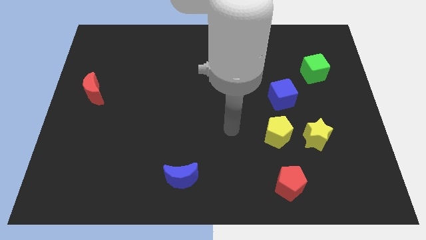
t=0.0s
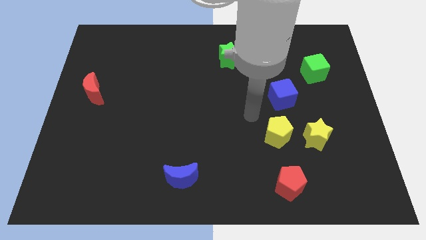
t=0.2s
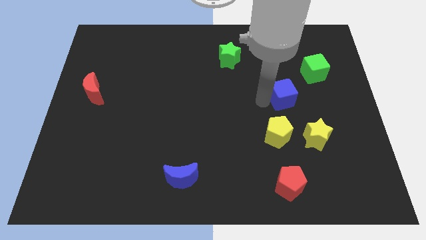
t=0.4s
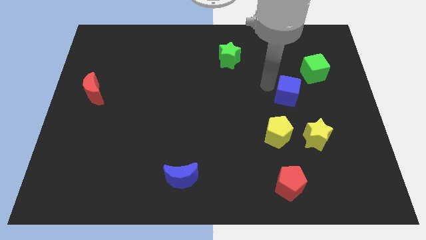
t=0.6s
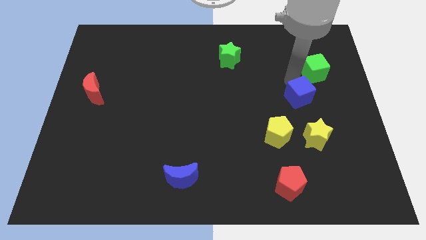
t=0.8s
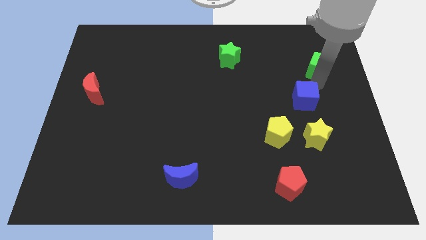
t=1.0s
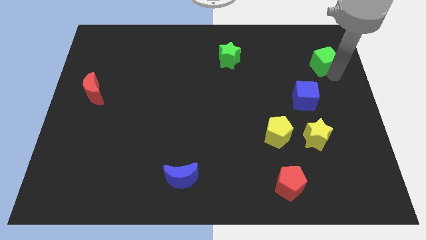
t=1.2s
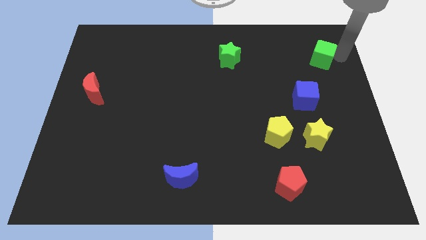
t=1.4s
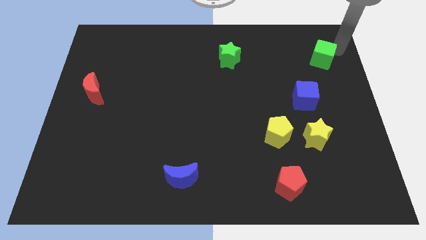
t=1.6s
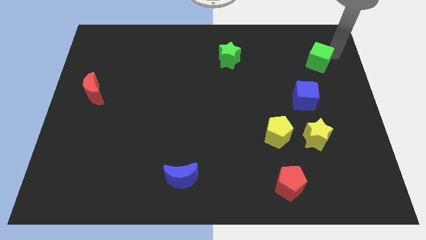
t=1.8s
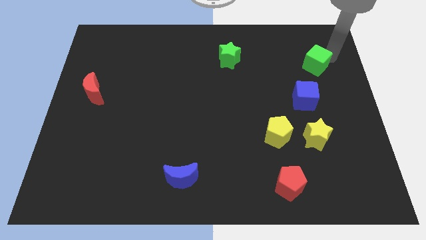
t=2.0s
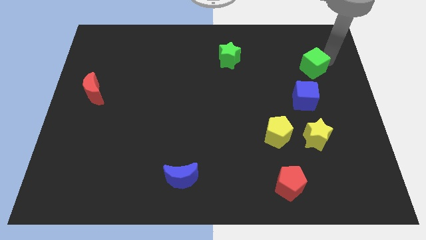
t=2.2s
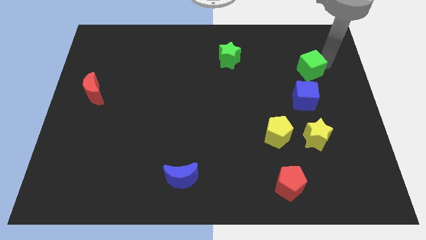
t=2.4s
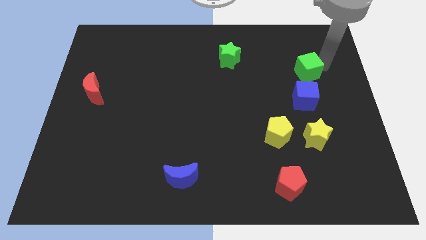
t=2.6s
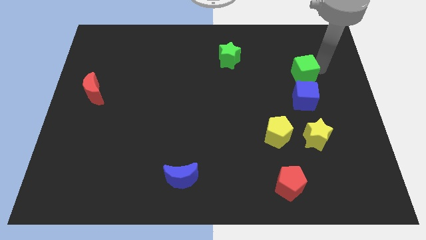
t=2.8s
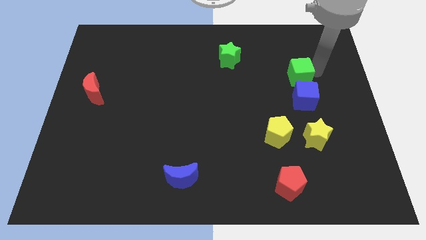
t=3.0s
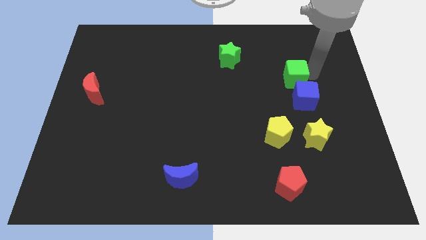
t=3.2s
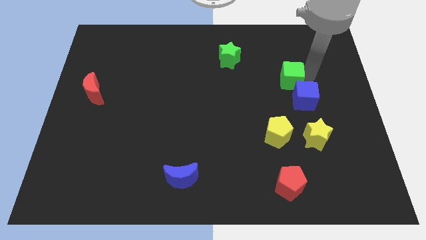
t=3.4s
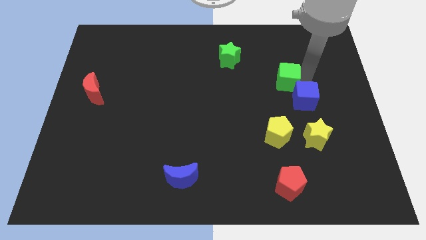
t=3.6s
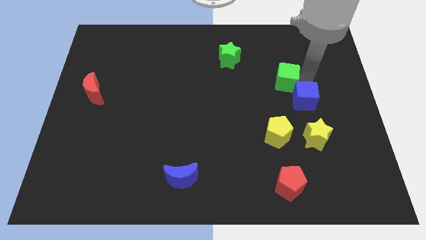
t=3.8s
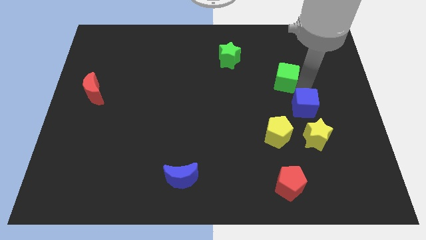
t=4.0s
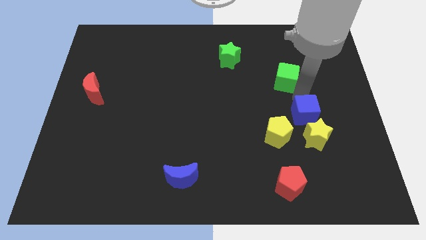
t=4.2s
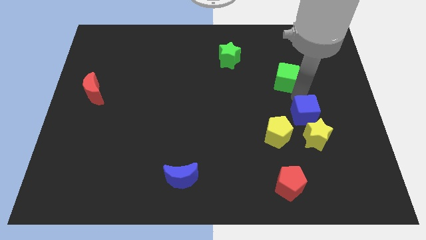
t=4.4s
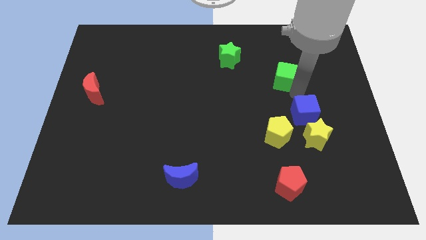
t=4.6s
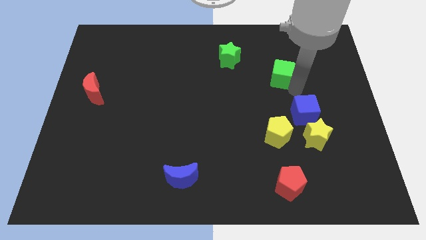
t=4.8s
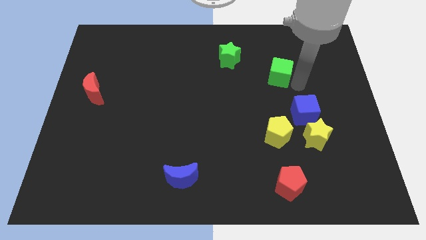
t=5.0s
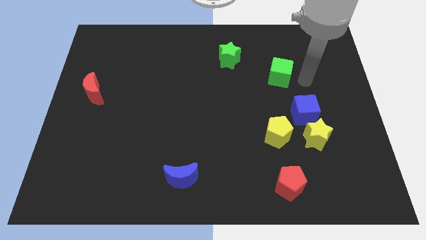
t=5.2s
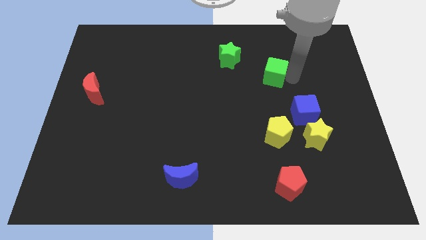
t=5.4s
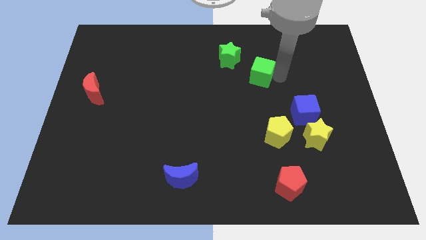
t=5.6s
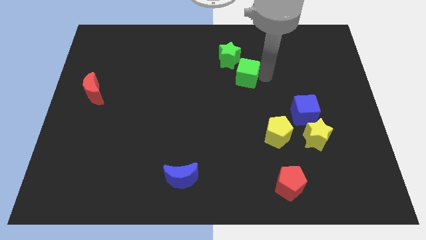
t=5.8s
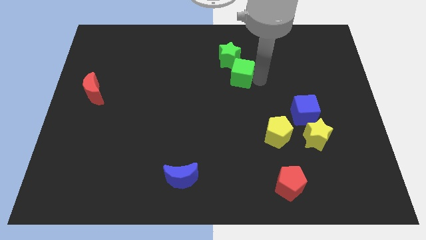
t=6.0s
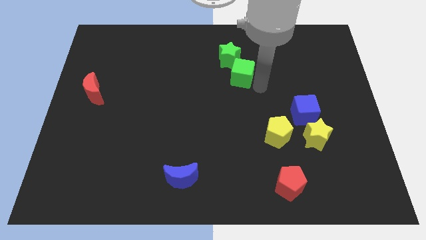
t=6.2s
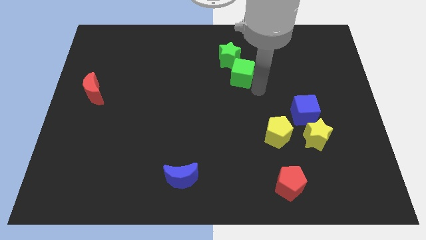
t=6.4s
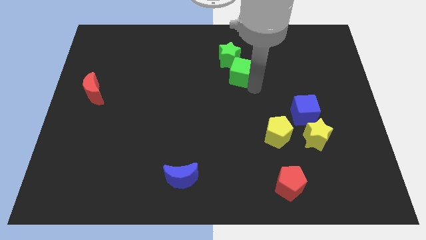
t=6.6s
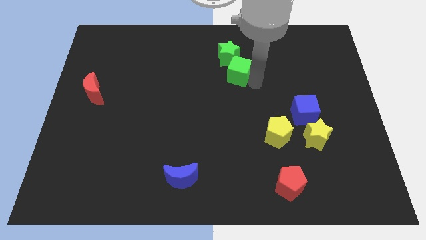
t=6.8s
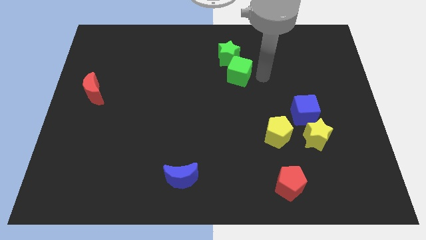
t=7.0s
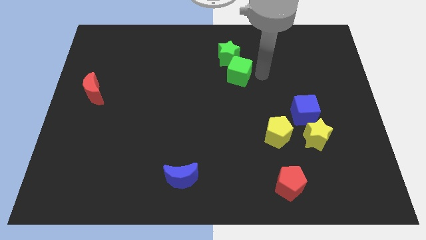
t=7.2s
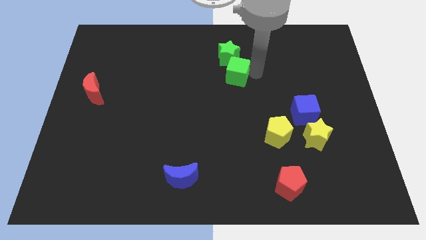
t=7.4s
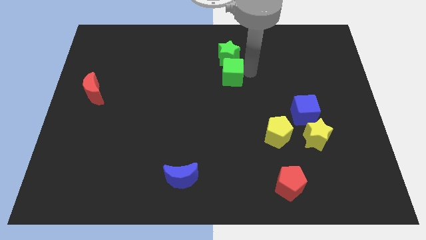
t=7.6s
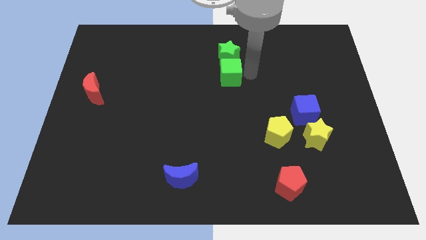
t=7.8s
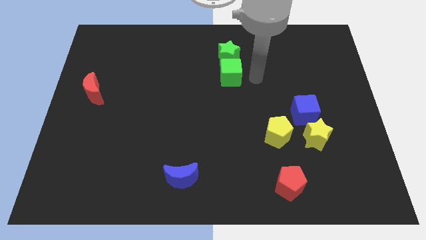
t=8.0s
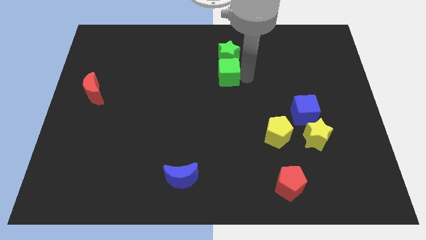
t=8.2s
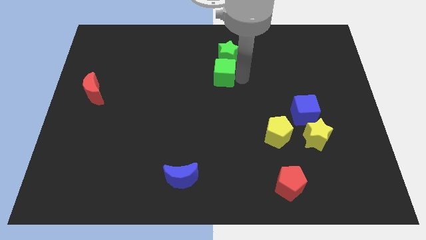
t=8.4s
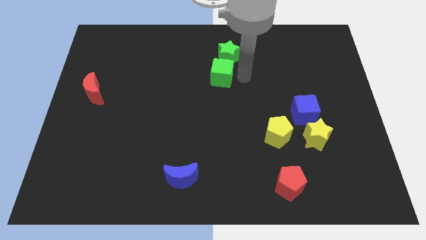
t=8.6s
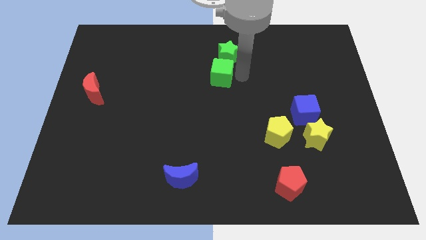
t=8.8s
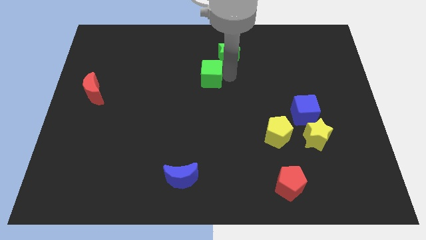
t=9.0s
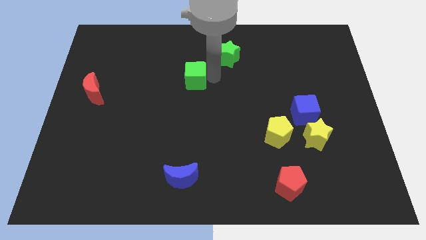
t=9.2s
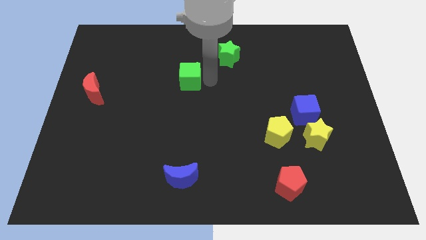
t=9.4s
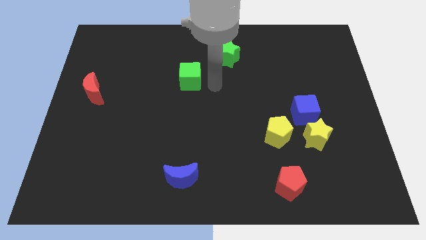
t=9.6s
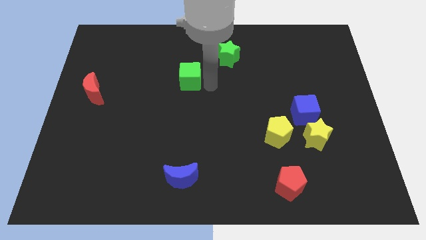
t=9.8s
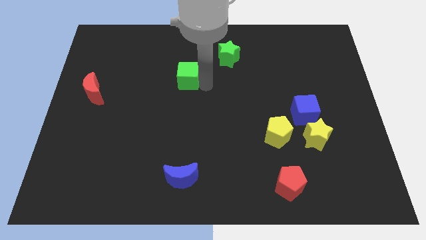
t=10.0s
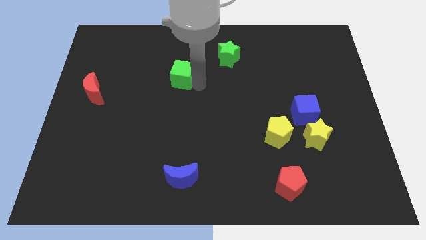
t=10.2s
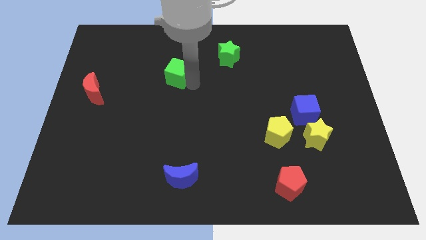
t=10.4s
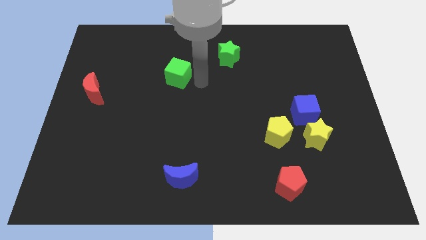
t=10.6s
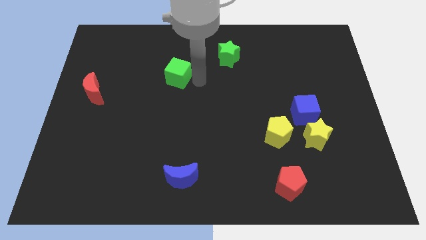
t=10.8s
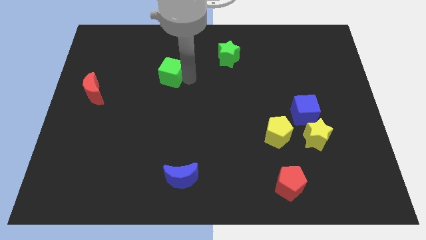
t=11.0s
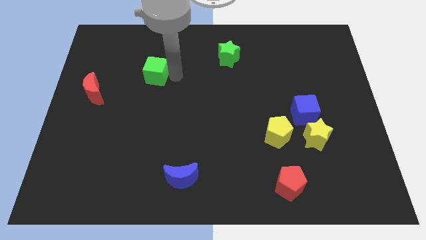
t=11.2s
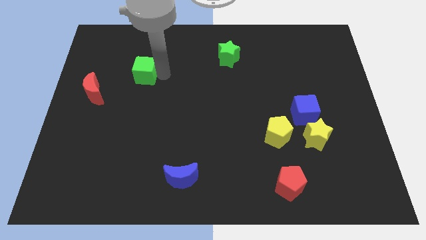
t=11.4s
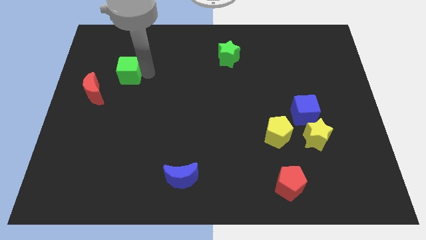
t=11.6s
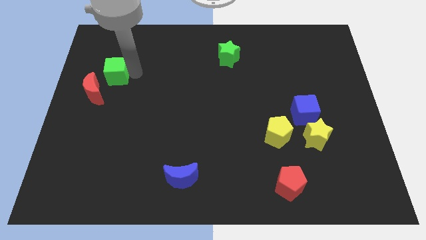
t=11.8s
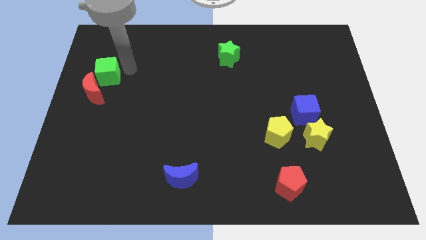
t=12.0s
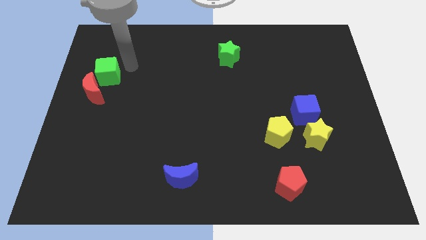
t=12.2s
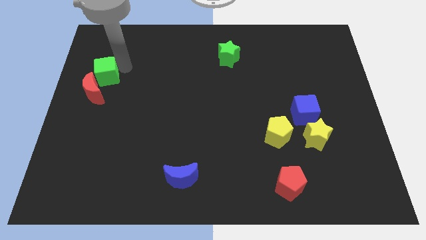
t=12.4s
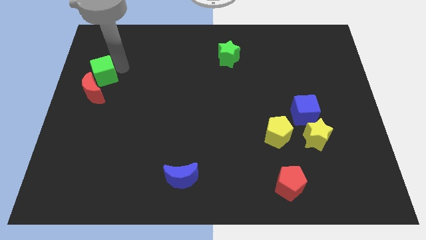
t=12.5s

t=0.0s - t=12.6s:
slide the green cube to the left side of the board

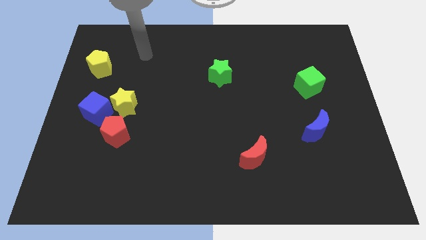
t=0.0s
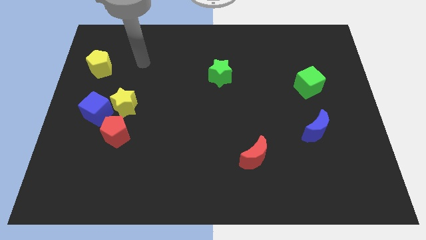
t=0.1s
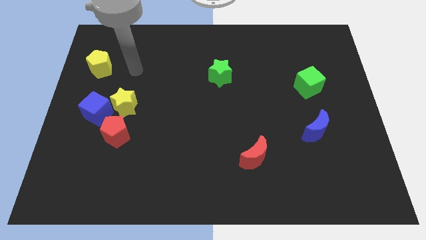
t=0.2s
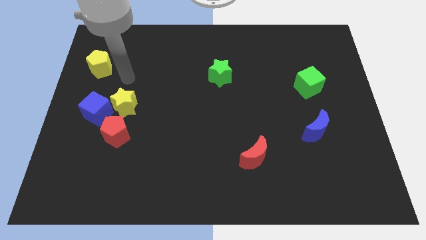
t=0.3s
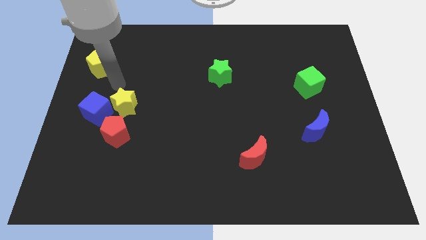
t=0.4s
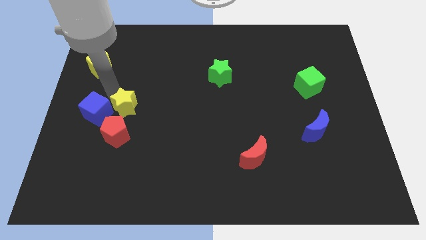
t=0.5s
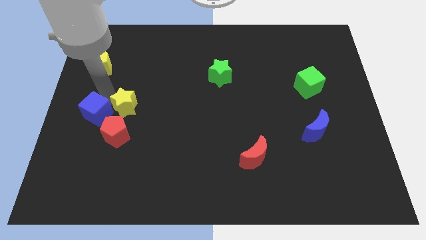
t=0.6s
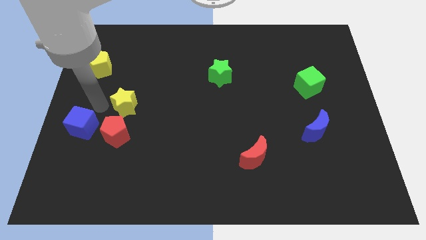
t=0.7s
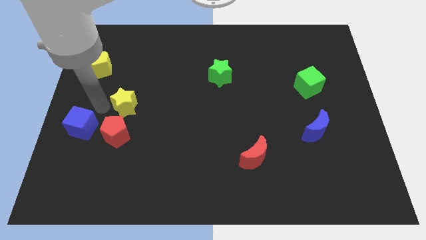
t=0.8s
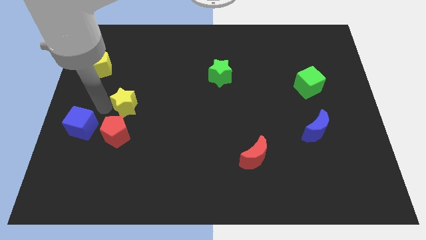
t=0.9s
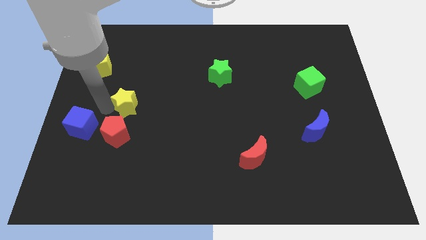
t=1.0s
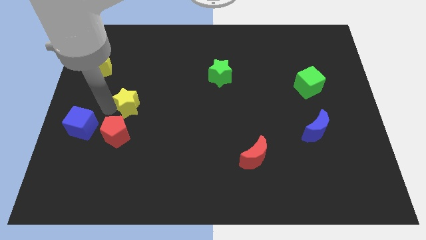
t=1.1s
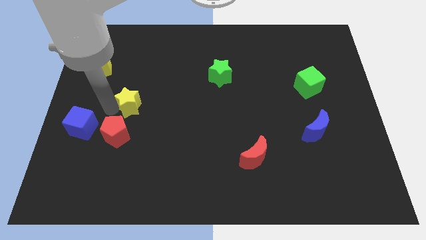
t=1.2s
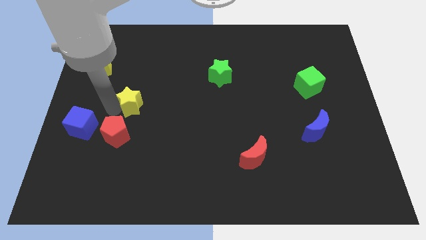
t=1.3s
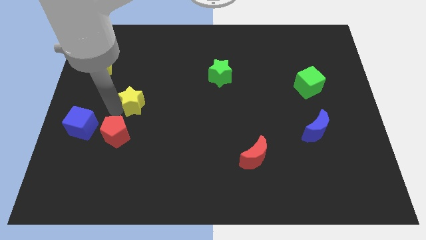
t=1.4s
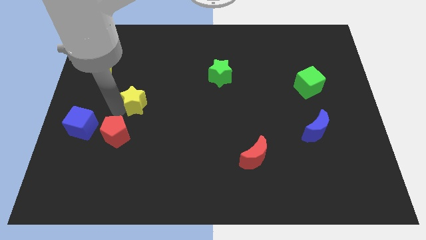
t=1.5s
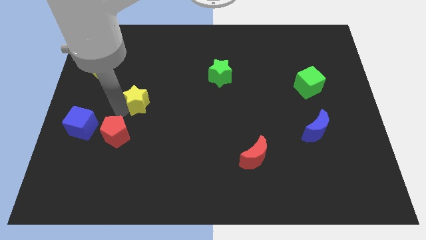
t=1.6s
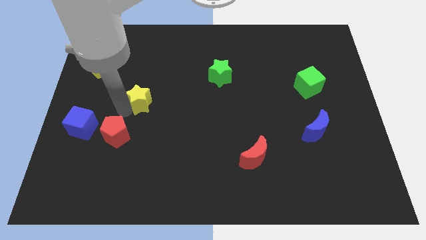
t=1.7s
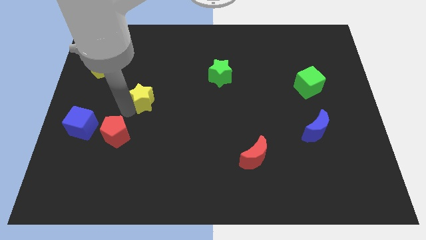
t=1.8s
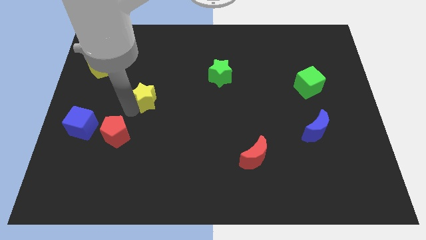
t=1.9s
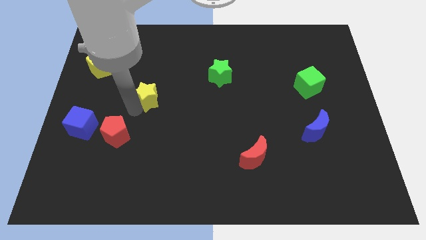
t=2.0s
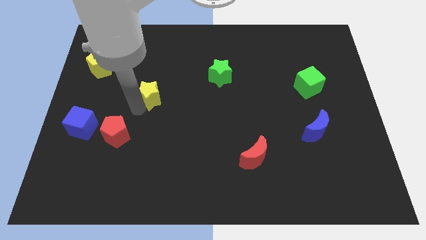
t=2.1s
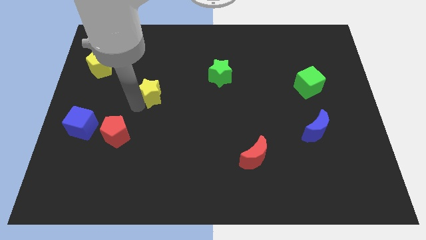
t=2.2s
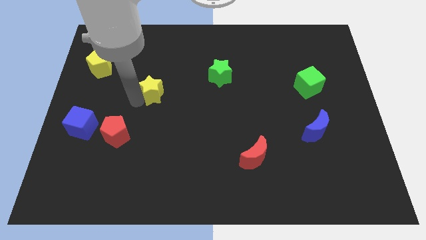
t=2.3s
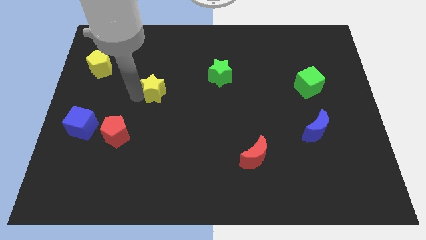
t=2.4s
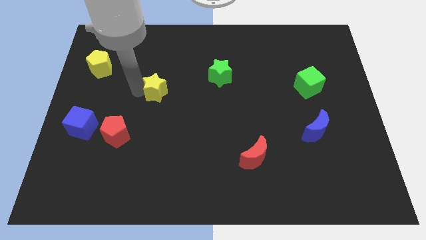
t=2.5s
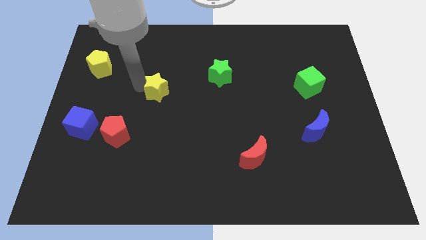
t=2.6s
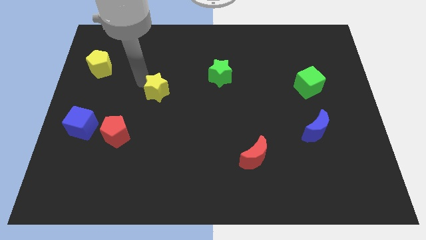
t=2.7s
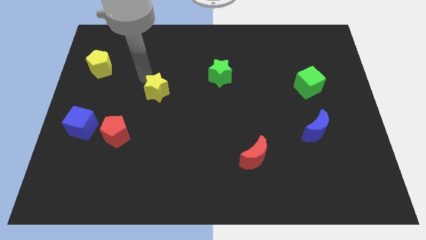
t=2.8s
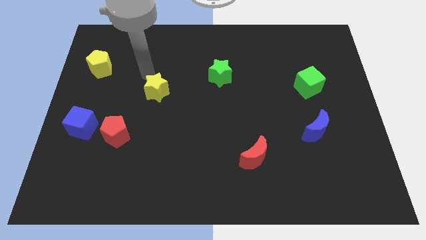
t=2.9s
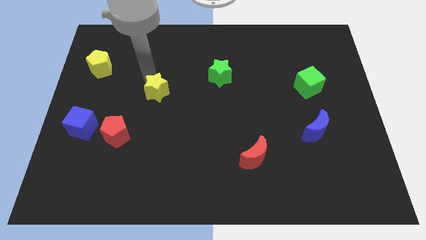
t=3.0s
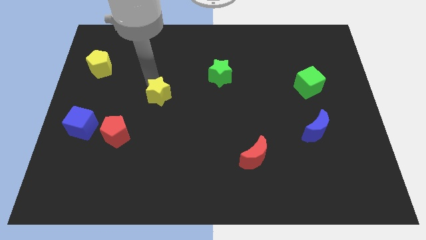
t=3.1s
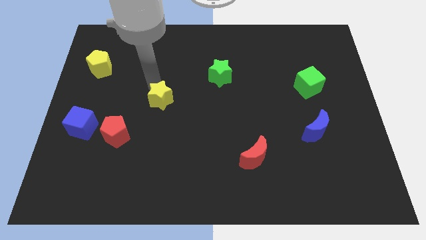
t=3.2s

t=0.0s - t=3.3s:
put the yellow star to the middle of the board
